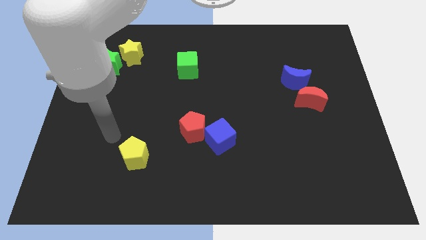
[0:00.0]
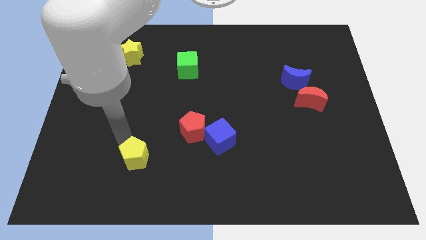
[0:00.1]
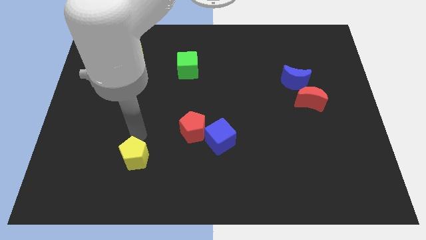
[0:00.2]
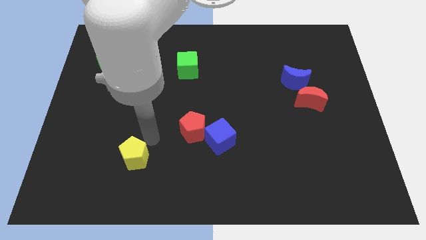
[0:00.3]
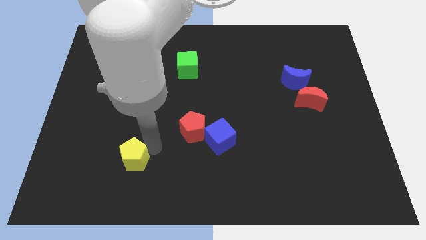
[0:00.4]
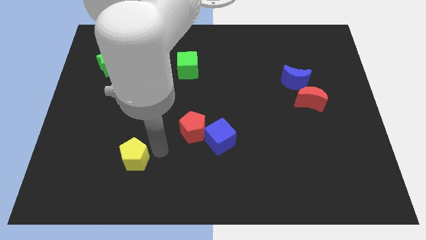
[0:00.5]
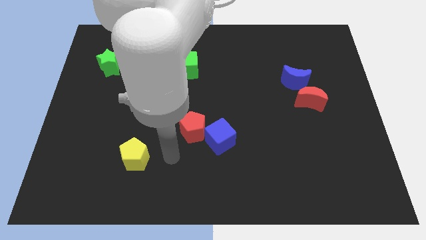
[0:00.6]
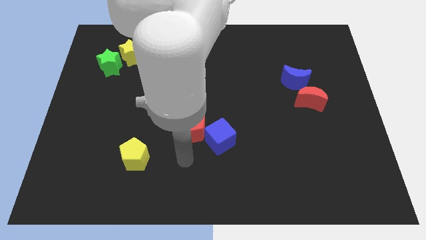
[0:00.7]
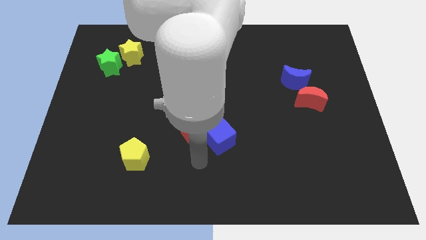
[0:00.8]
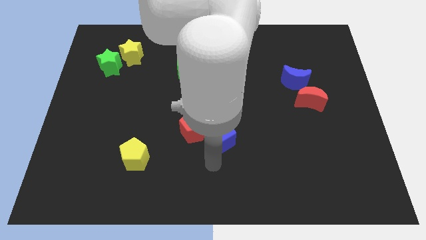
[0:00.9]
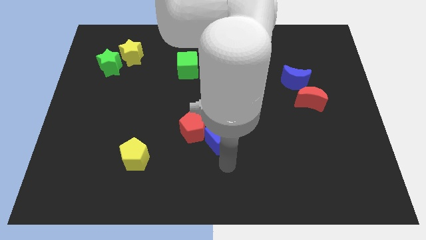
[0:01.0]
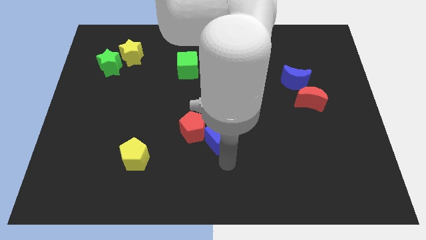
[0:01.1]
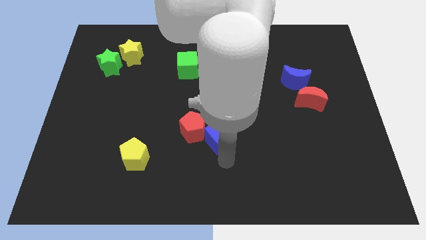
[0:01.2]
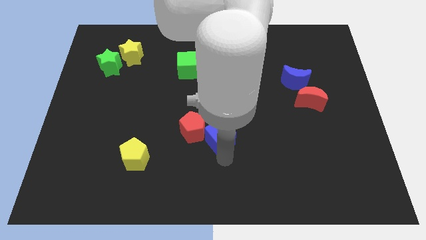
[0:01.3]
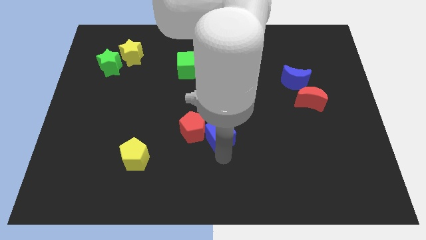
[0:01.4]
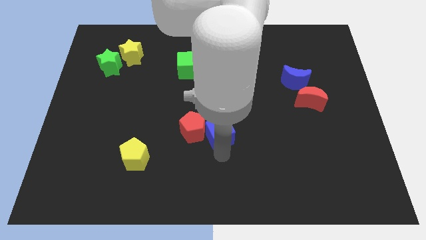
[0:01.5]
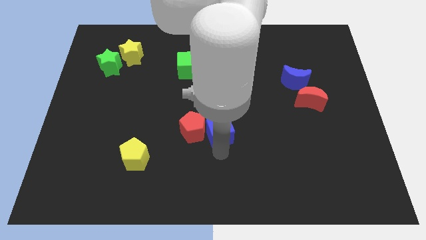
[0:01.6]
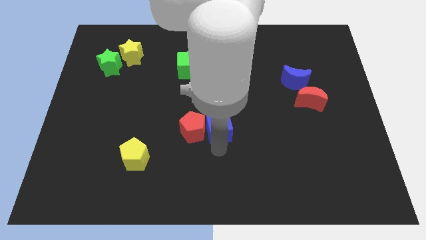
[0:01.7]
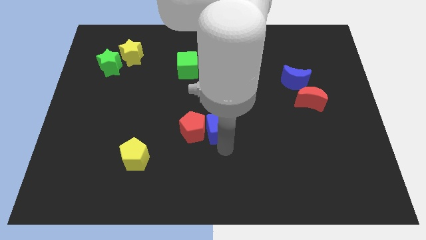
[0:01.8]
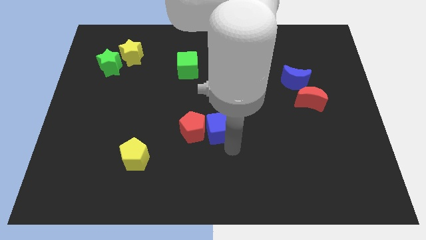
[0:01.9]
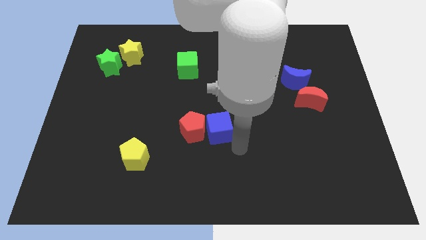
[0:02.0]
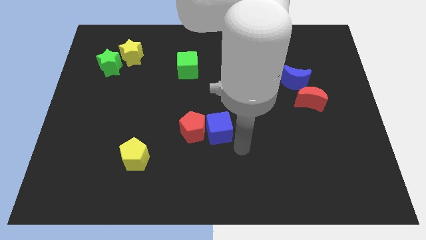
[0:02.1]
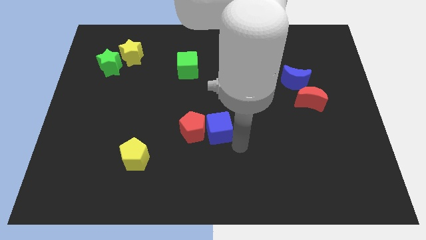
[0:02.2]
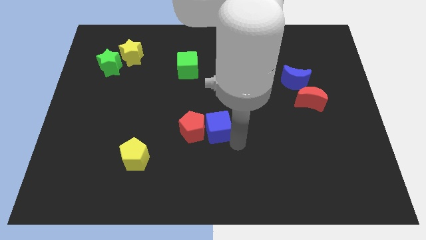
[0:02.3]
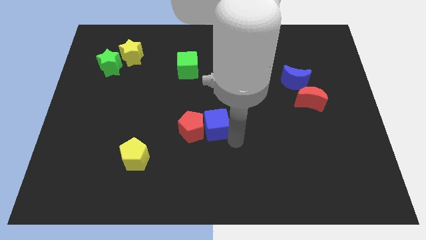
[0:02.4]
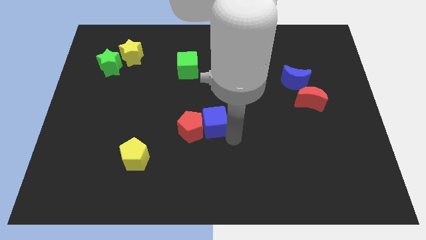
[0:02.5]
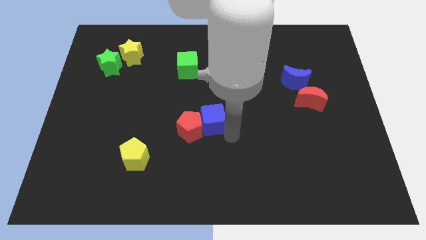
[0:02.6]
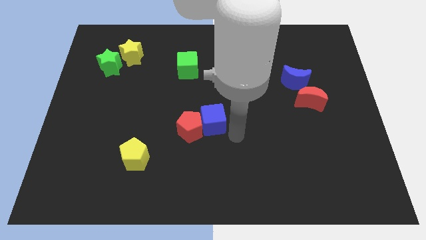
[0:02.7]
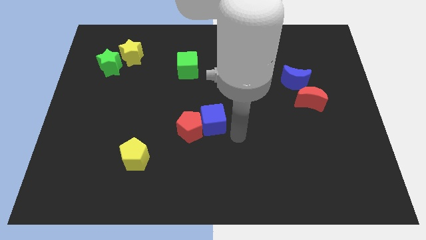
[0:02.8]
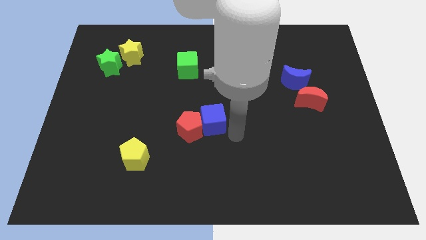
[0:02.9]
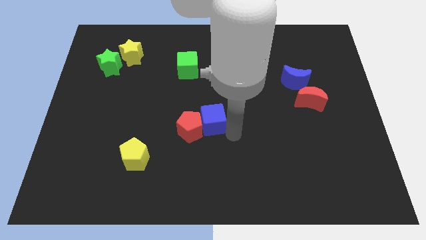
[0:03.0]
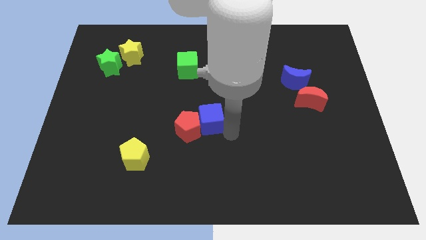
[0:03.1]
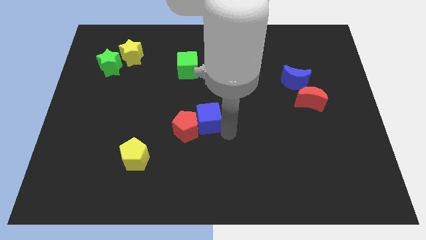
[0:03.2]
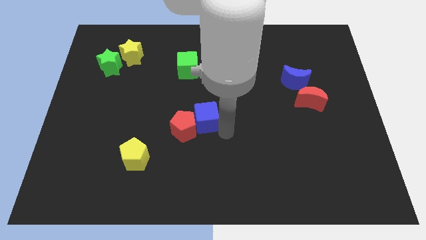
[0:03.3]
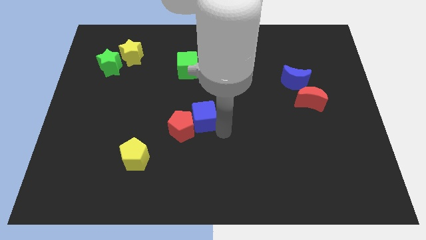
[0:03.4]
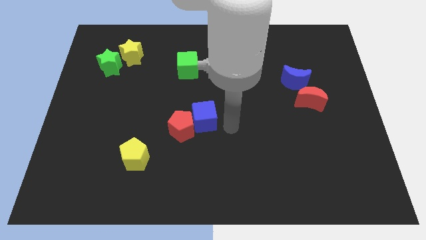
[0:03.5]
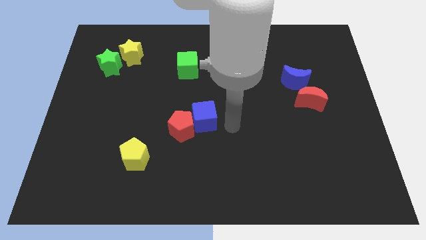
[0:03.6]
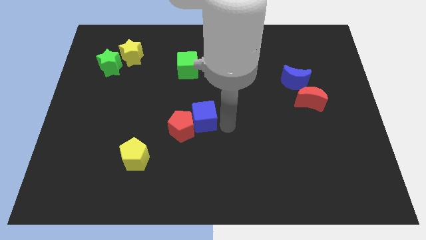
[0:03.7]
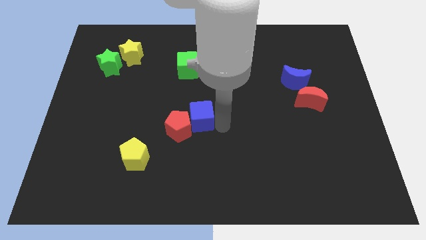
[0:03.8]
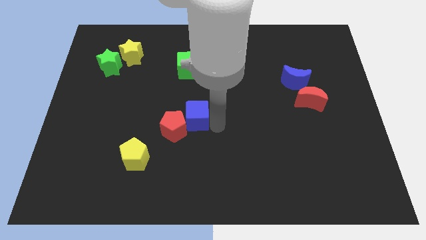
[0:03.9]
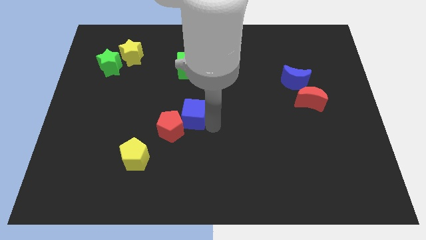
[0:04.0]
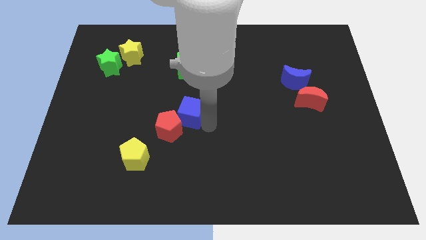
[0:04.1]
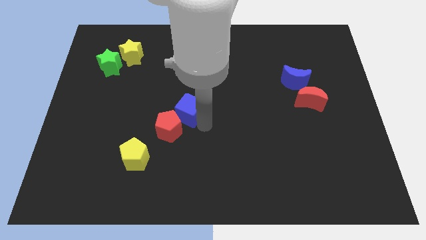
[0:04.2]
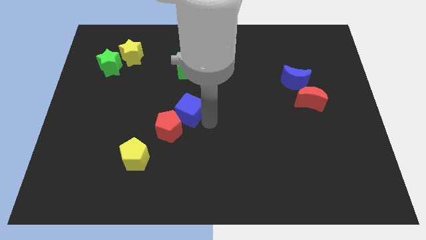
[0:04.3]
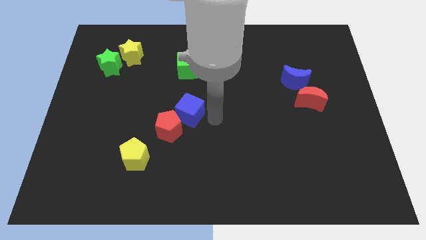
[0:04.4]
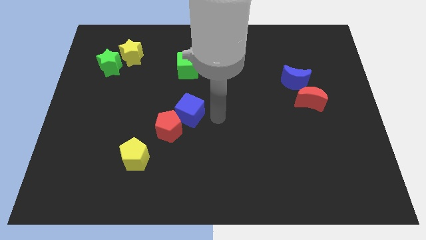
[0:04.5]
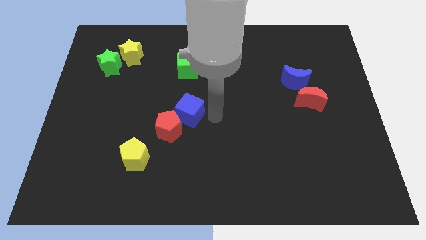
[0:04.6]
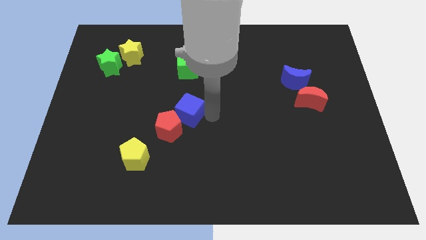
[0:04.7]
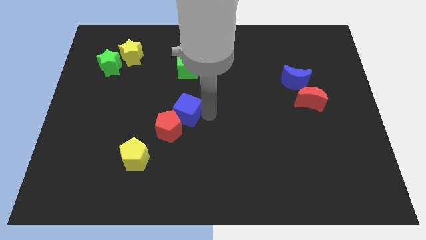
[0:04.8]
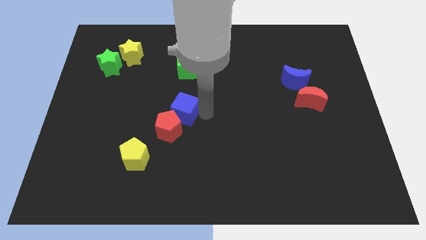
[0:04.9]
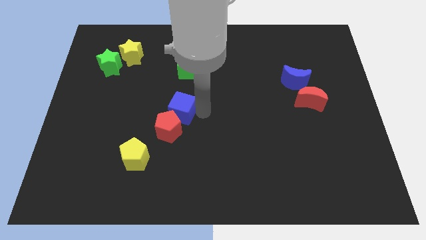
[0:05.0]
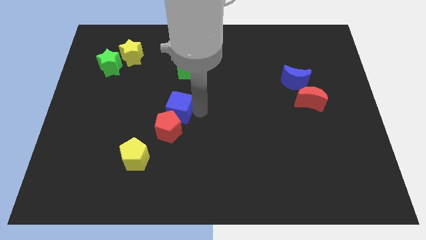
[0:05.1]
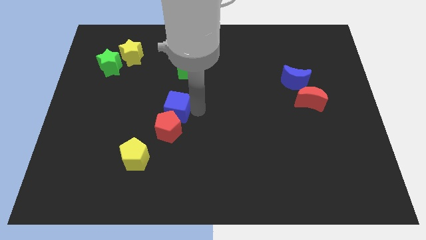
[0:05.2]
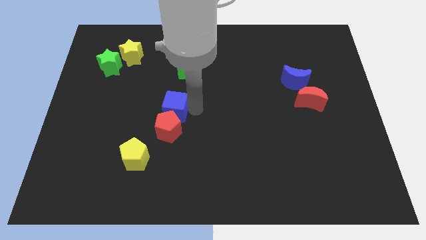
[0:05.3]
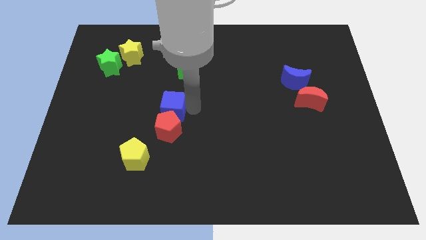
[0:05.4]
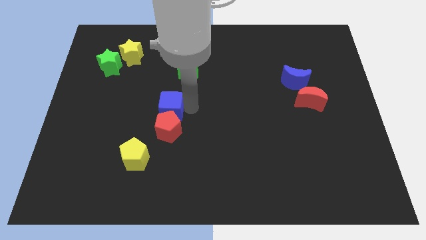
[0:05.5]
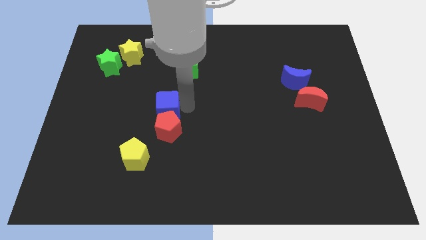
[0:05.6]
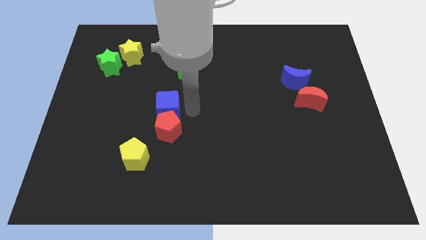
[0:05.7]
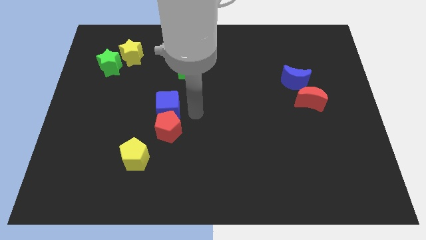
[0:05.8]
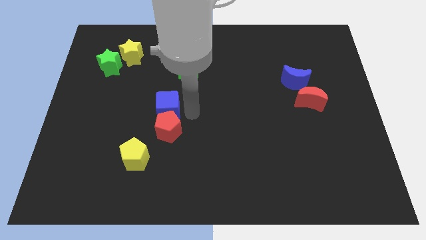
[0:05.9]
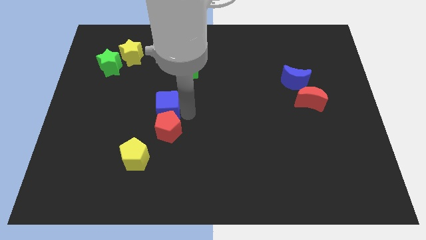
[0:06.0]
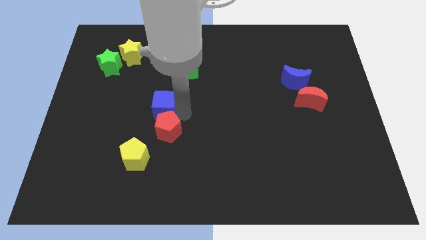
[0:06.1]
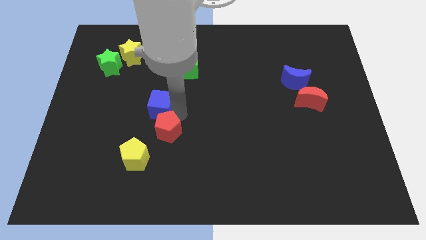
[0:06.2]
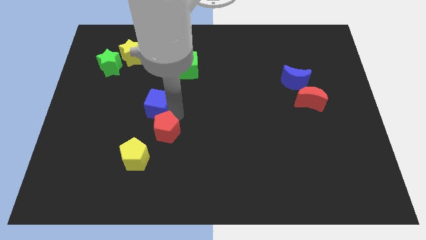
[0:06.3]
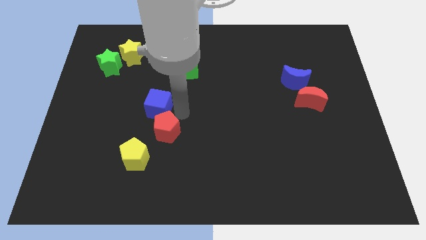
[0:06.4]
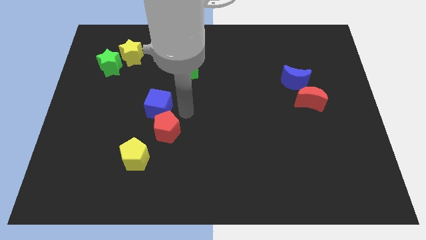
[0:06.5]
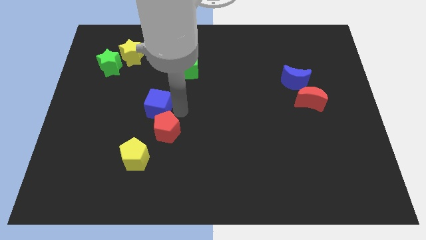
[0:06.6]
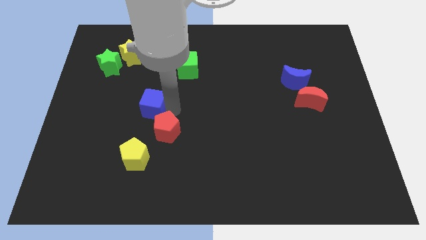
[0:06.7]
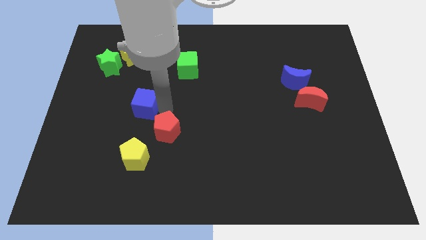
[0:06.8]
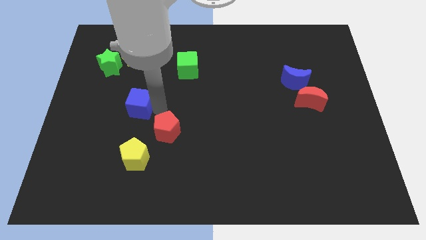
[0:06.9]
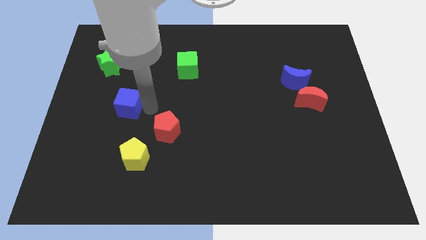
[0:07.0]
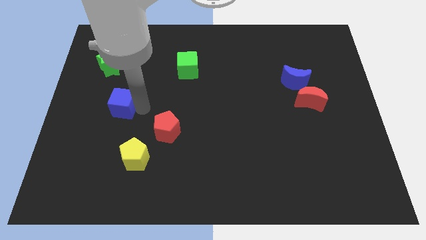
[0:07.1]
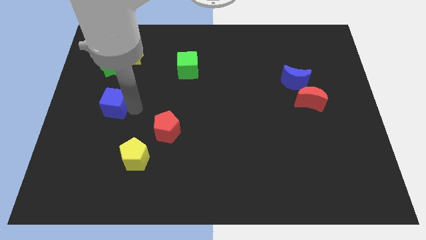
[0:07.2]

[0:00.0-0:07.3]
put the blue cube below the green star
